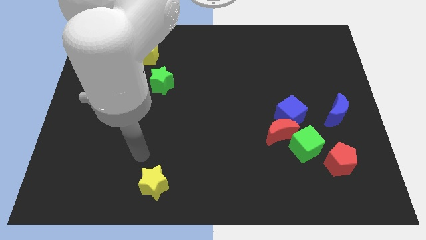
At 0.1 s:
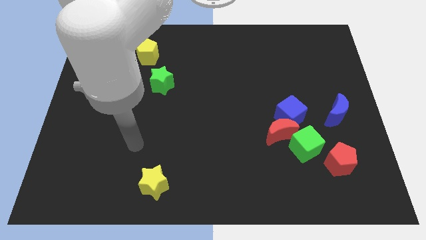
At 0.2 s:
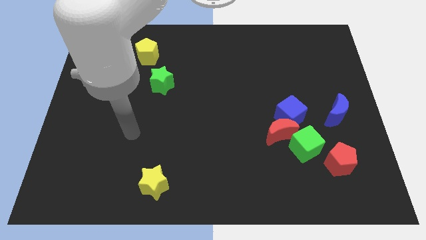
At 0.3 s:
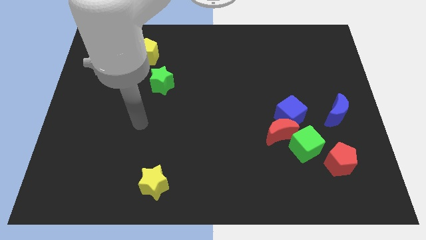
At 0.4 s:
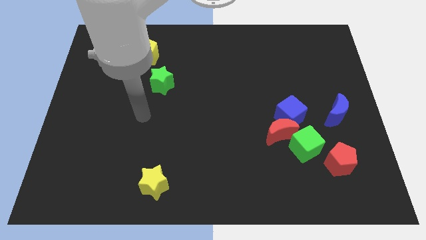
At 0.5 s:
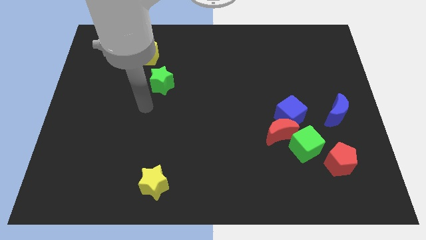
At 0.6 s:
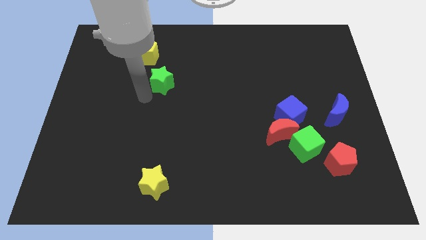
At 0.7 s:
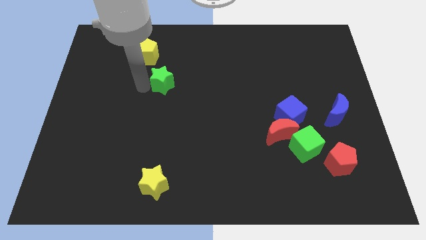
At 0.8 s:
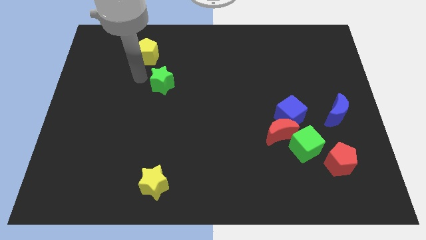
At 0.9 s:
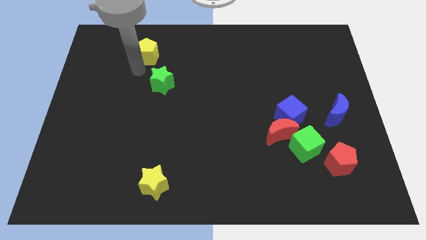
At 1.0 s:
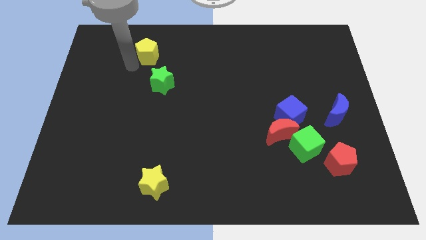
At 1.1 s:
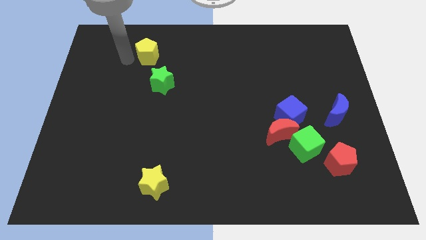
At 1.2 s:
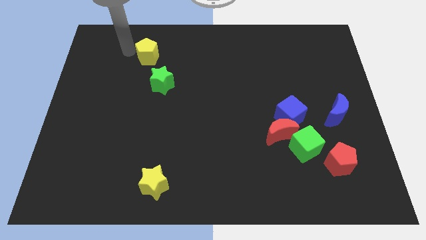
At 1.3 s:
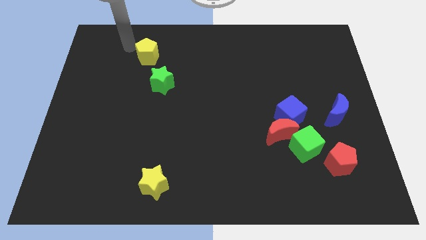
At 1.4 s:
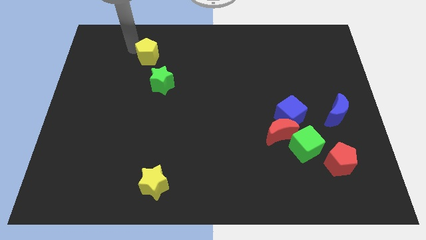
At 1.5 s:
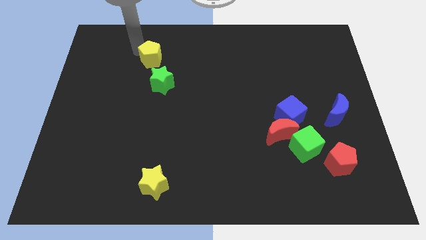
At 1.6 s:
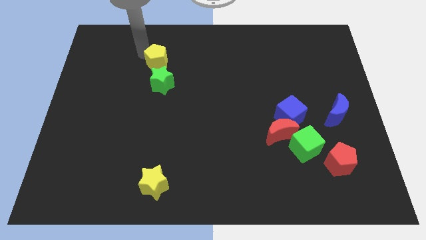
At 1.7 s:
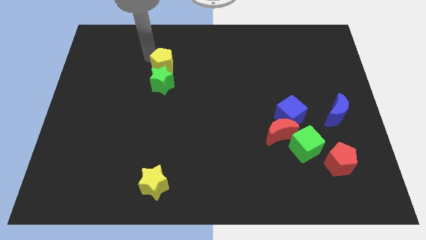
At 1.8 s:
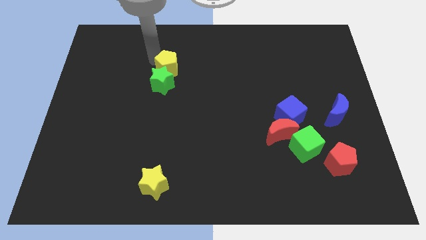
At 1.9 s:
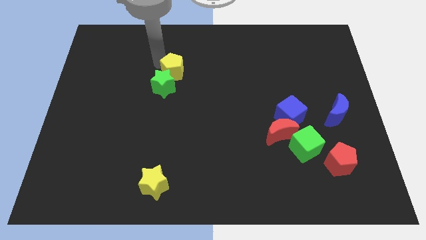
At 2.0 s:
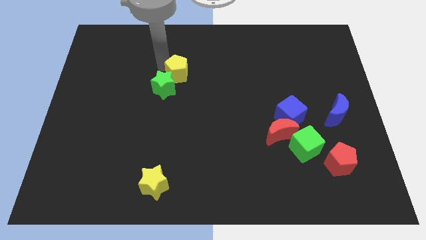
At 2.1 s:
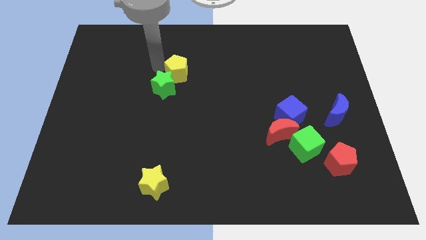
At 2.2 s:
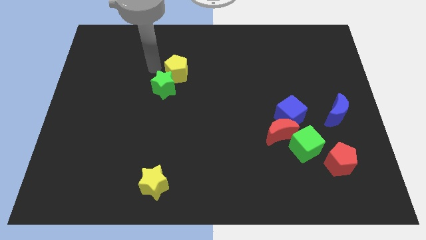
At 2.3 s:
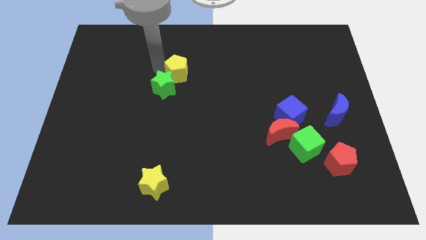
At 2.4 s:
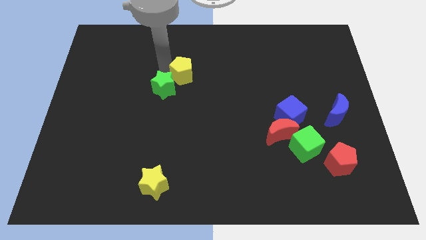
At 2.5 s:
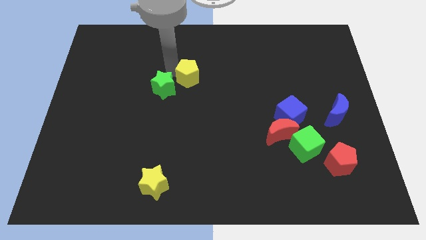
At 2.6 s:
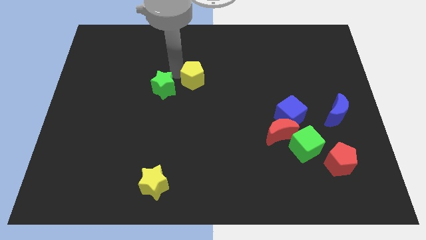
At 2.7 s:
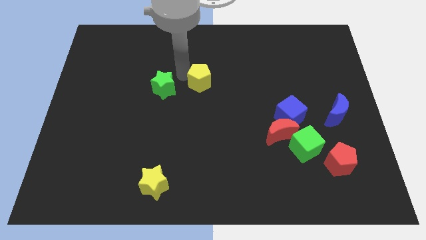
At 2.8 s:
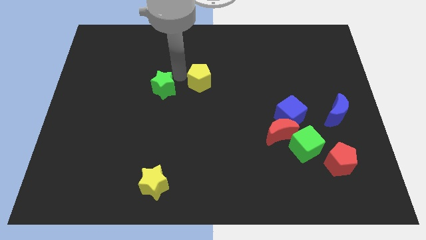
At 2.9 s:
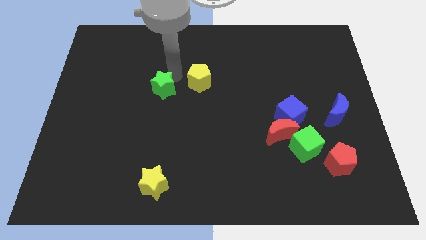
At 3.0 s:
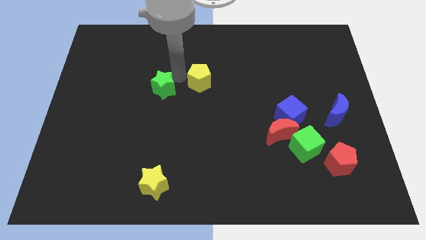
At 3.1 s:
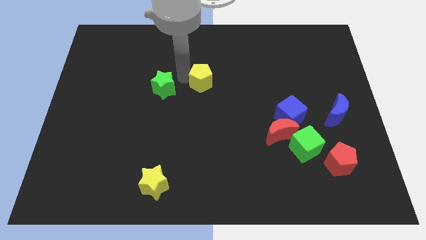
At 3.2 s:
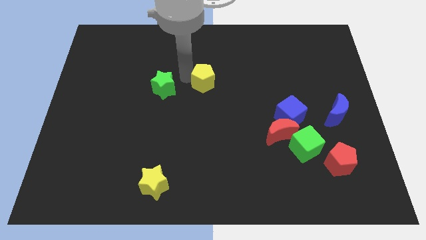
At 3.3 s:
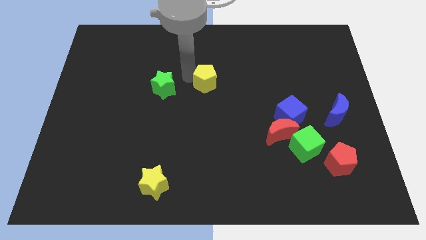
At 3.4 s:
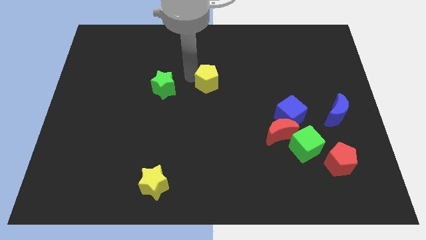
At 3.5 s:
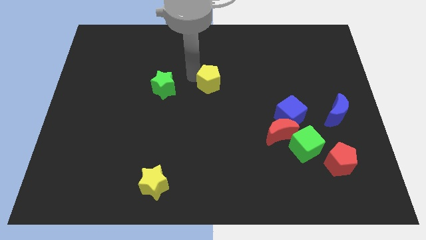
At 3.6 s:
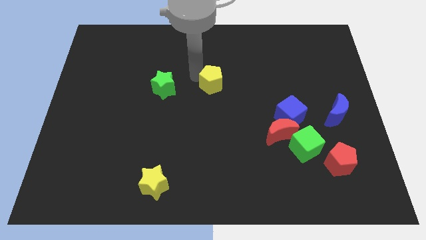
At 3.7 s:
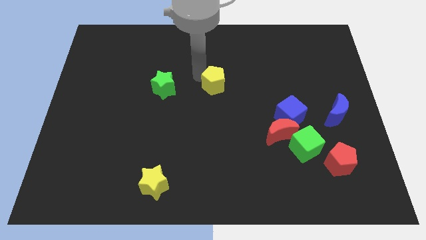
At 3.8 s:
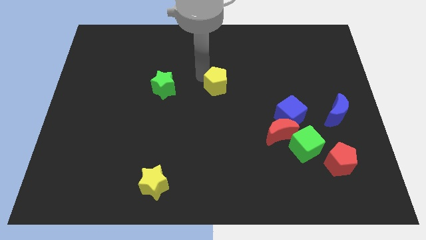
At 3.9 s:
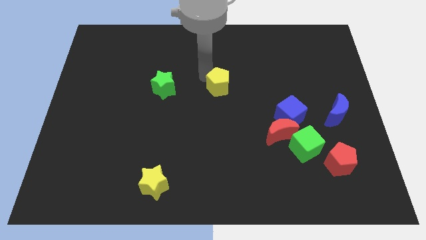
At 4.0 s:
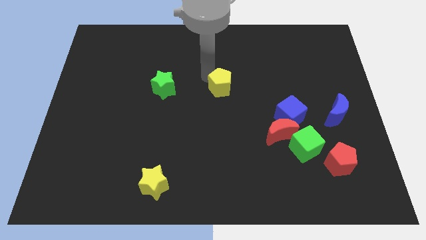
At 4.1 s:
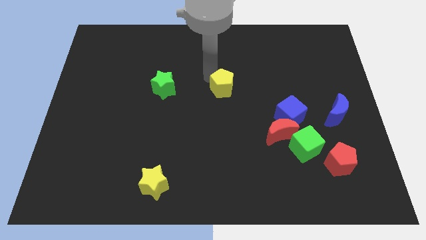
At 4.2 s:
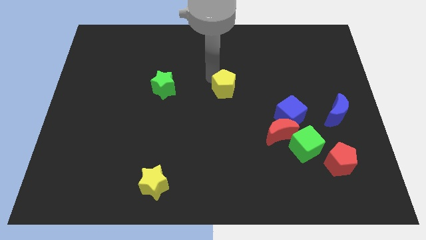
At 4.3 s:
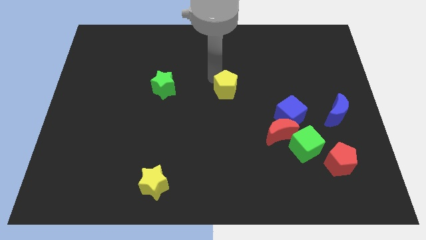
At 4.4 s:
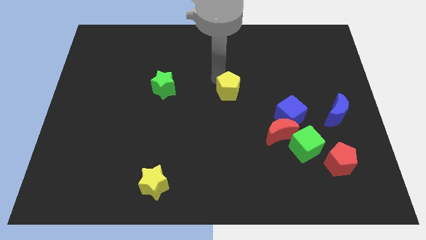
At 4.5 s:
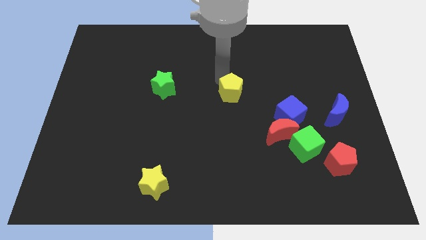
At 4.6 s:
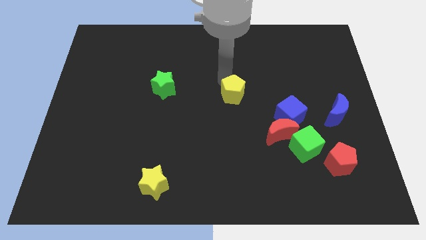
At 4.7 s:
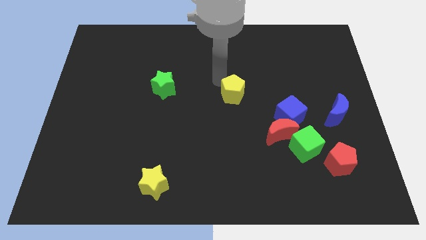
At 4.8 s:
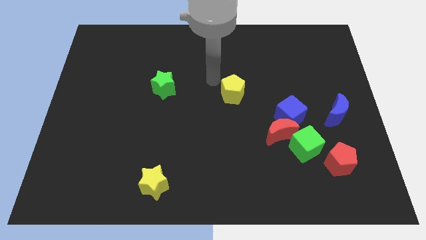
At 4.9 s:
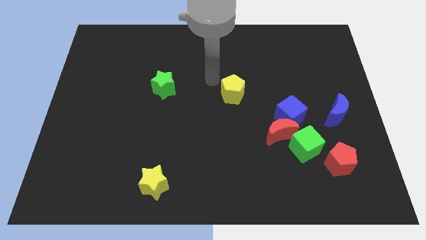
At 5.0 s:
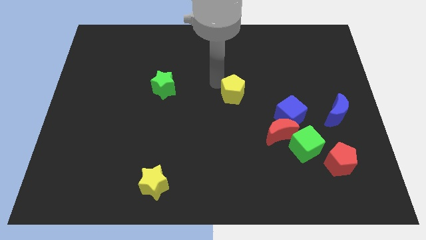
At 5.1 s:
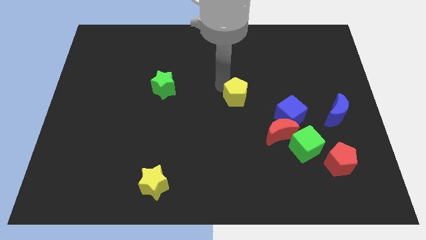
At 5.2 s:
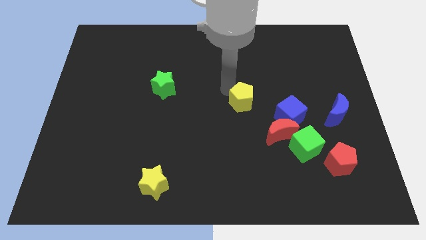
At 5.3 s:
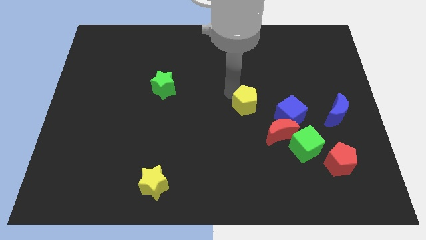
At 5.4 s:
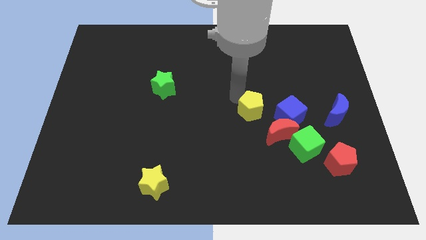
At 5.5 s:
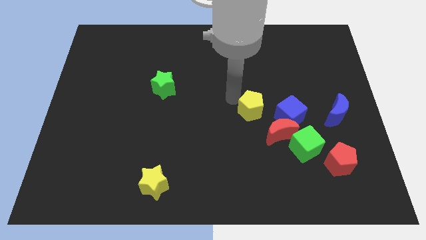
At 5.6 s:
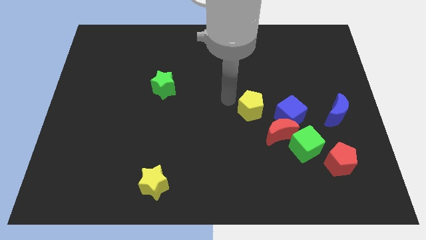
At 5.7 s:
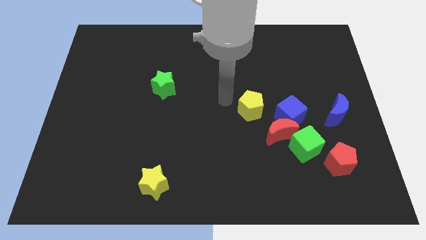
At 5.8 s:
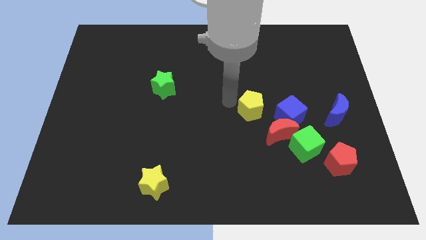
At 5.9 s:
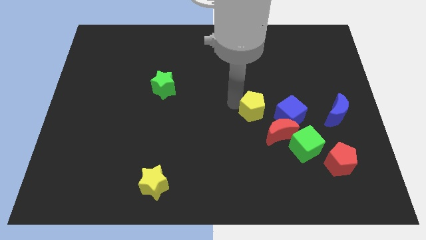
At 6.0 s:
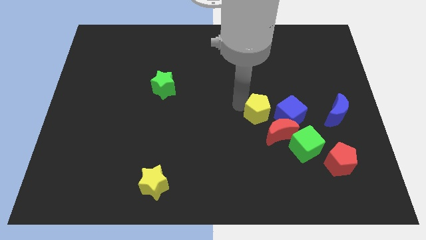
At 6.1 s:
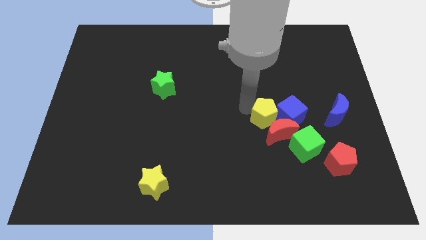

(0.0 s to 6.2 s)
put the yellow pentagon close to the blue cube

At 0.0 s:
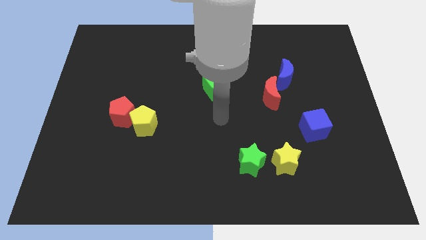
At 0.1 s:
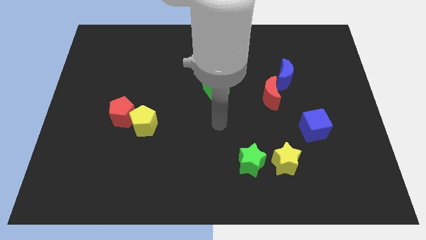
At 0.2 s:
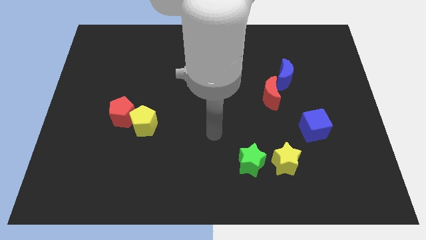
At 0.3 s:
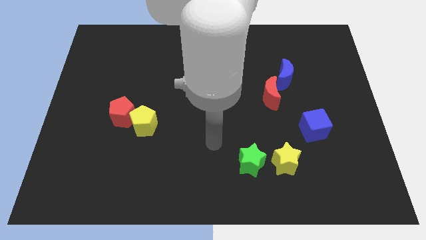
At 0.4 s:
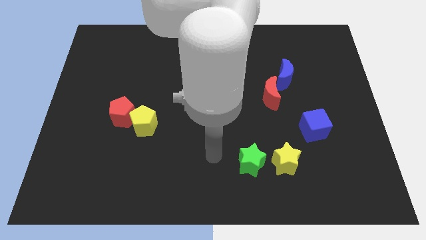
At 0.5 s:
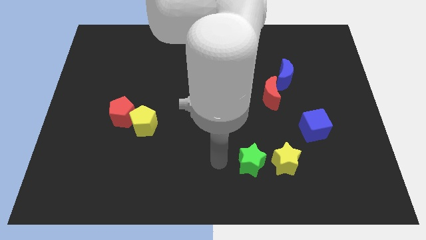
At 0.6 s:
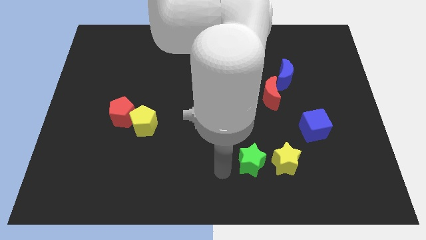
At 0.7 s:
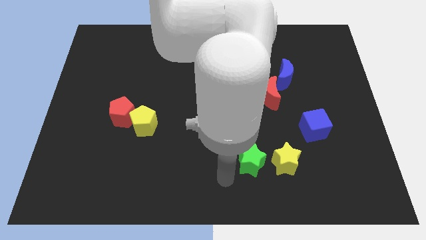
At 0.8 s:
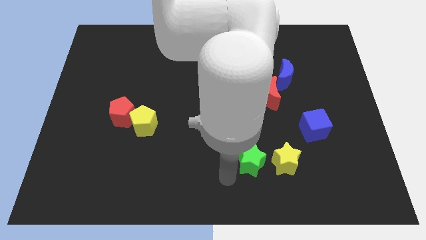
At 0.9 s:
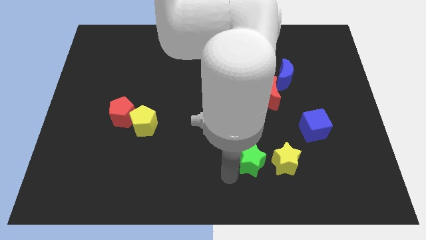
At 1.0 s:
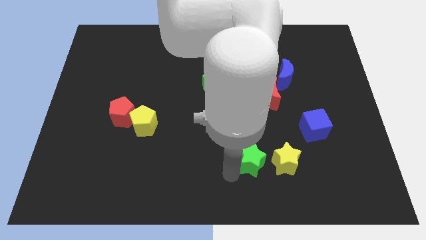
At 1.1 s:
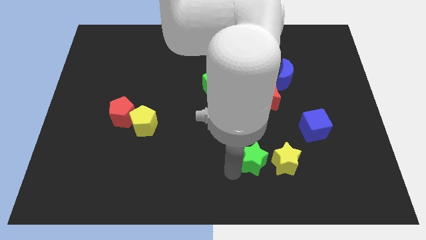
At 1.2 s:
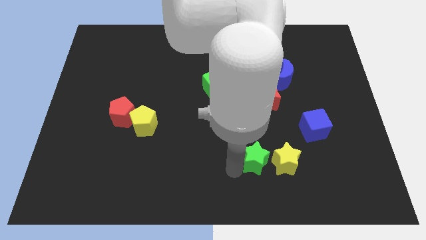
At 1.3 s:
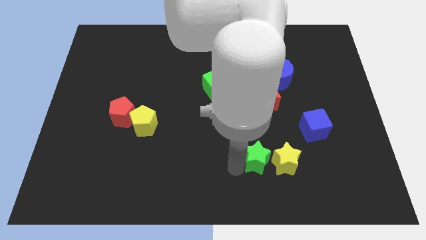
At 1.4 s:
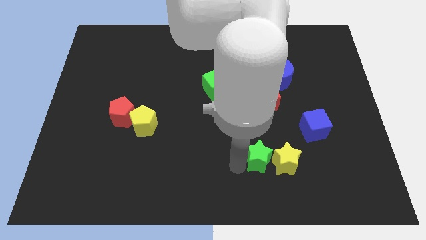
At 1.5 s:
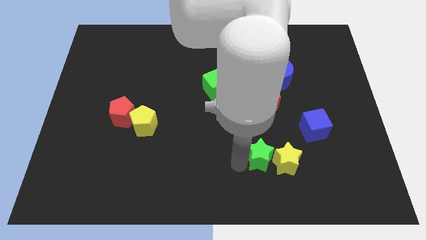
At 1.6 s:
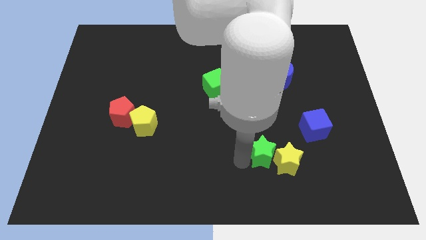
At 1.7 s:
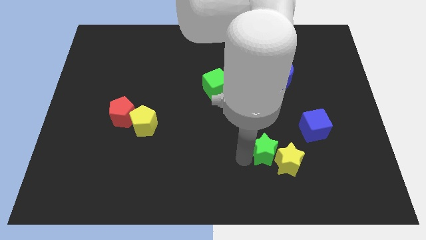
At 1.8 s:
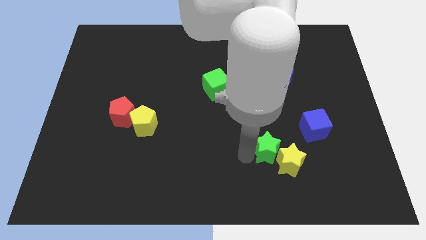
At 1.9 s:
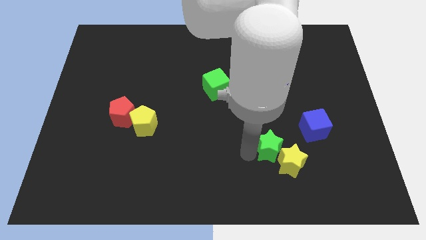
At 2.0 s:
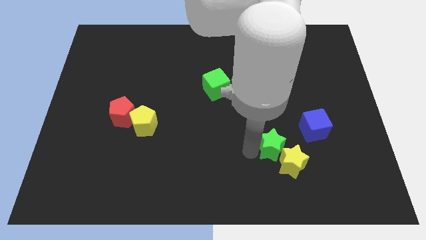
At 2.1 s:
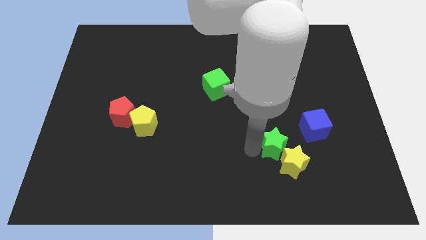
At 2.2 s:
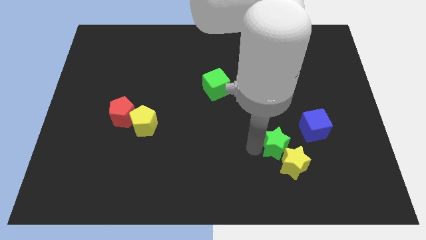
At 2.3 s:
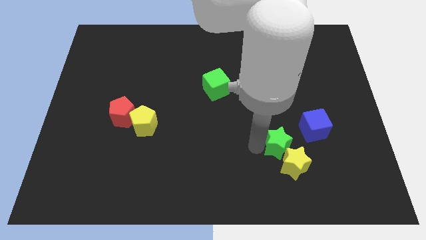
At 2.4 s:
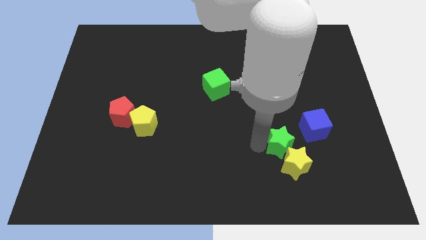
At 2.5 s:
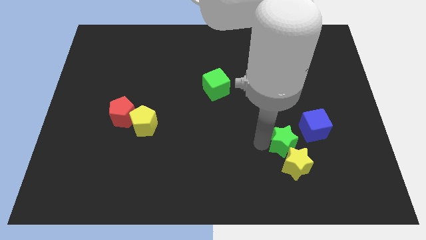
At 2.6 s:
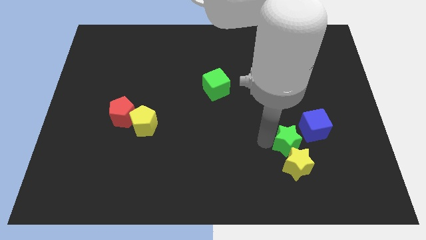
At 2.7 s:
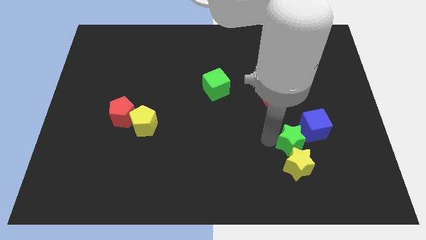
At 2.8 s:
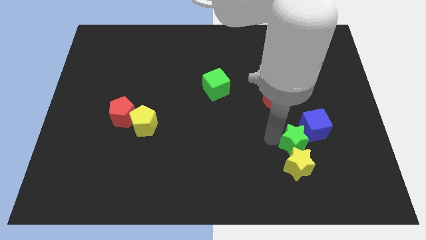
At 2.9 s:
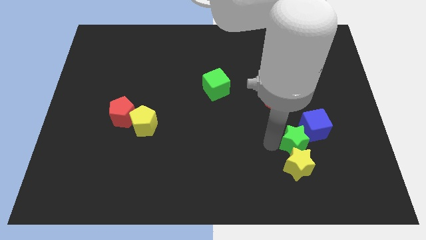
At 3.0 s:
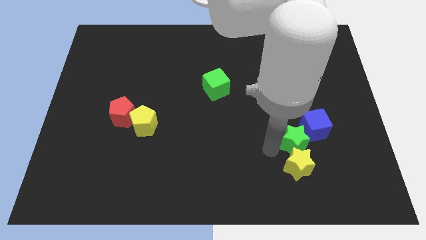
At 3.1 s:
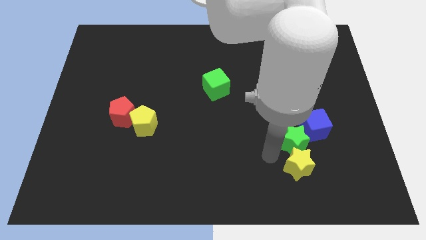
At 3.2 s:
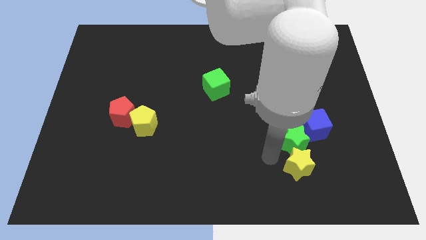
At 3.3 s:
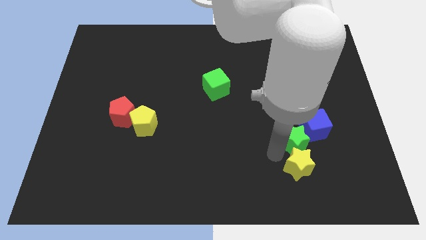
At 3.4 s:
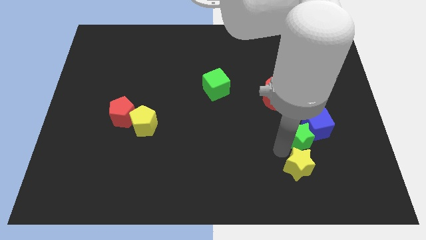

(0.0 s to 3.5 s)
push the green star next to the blue cube
